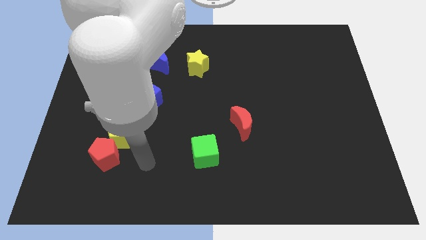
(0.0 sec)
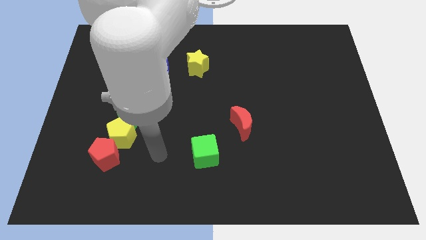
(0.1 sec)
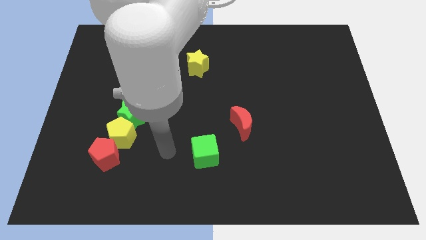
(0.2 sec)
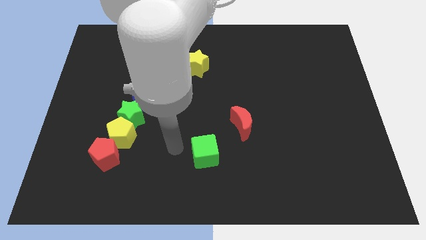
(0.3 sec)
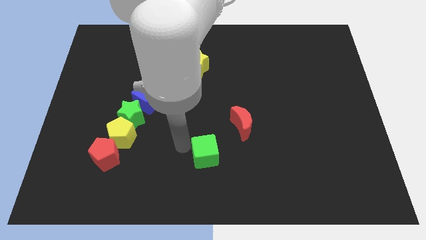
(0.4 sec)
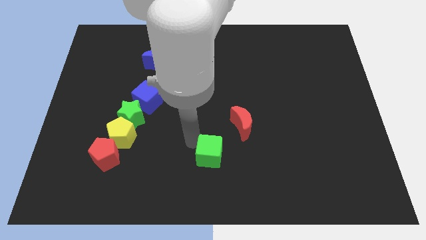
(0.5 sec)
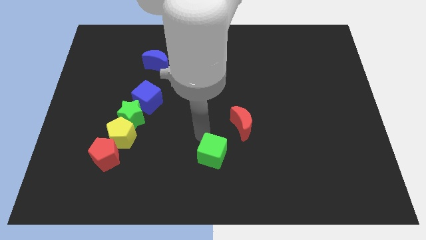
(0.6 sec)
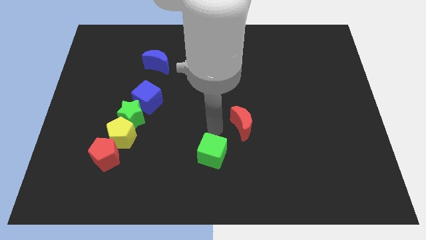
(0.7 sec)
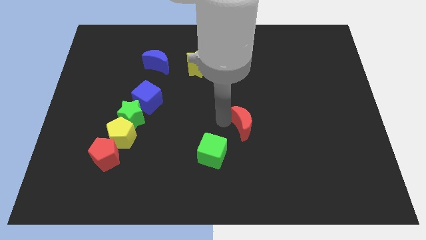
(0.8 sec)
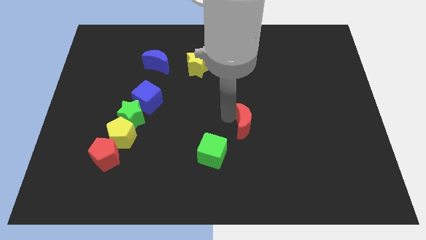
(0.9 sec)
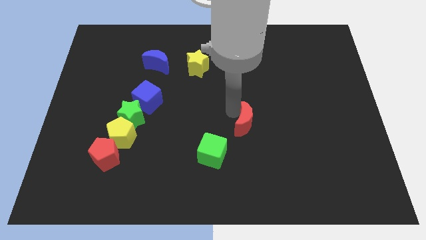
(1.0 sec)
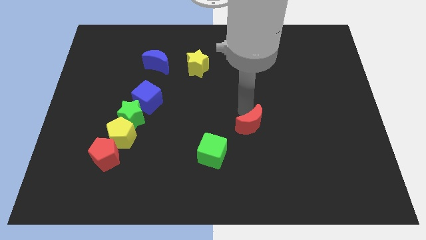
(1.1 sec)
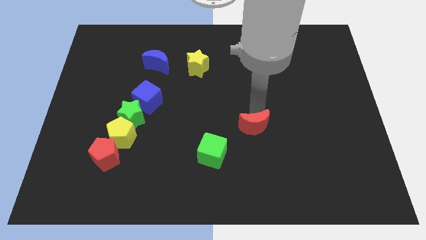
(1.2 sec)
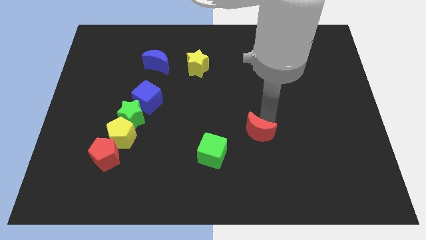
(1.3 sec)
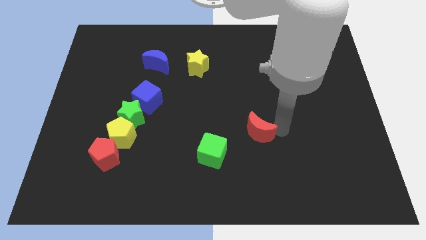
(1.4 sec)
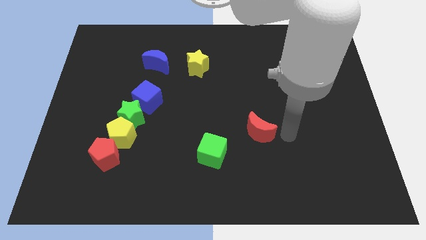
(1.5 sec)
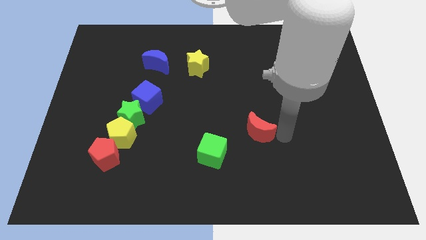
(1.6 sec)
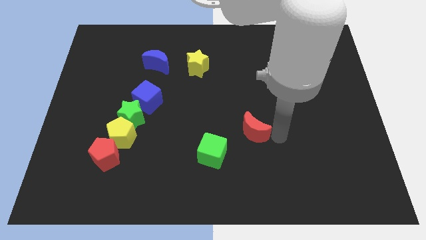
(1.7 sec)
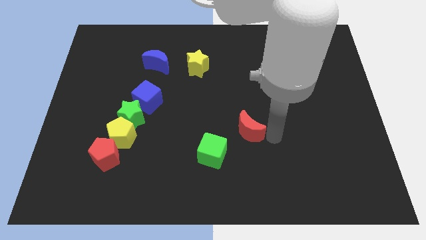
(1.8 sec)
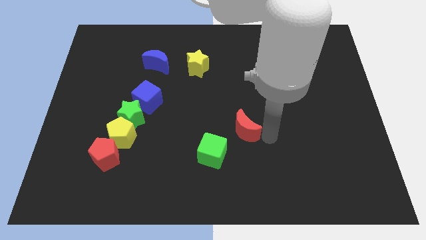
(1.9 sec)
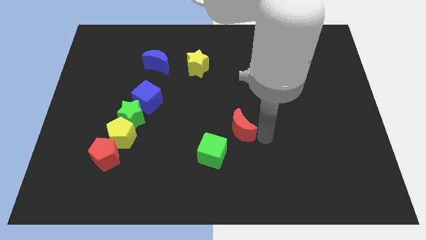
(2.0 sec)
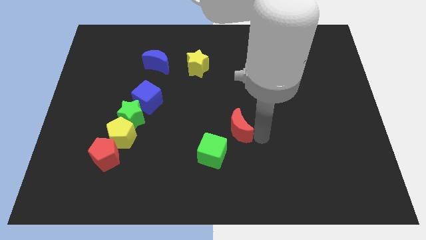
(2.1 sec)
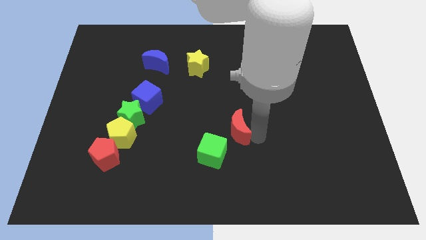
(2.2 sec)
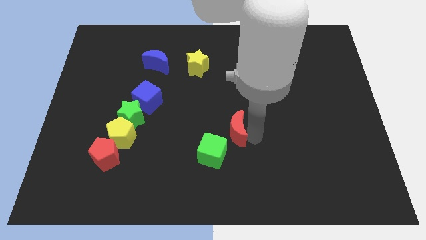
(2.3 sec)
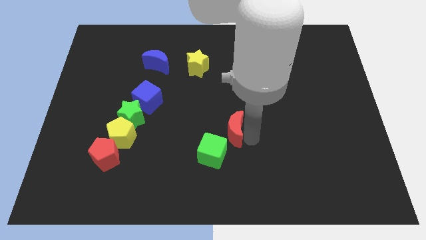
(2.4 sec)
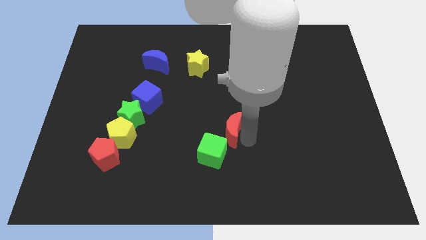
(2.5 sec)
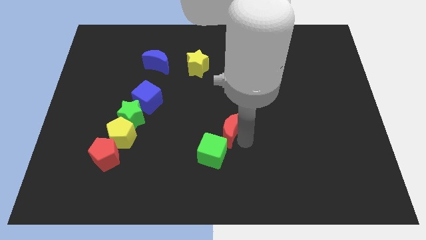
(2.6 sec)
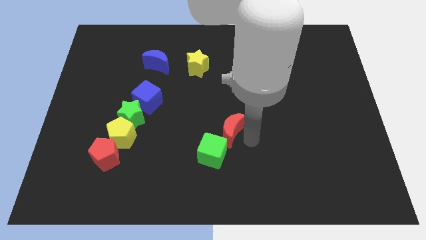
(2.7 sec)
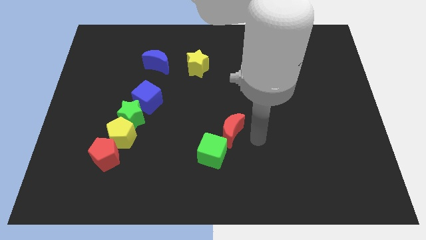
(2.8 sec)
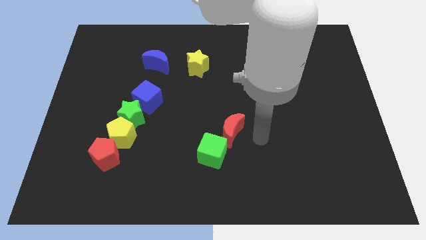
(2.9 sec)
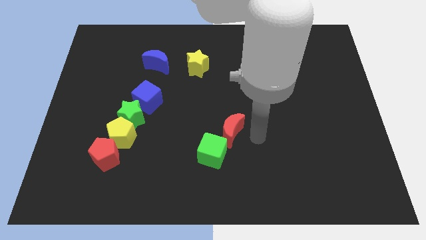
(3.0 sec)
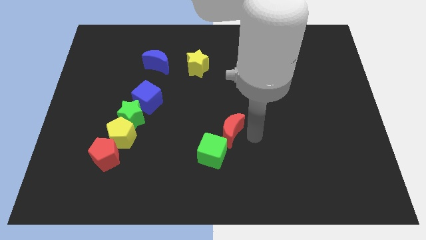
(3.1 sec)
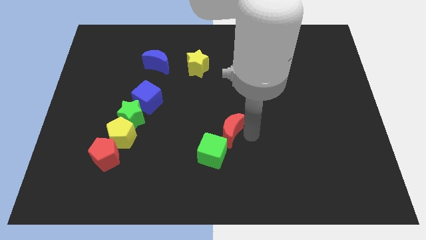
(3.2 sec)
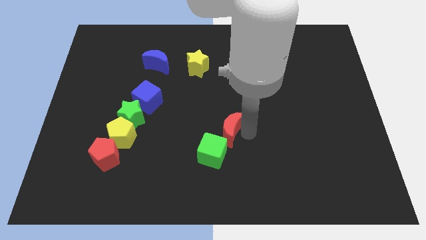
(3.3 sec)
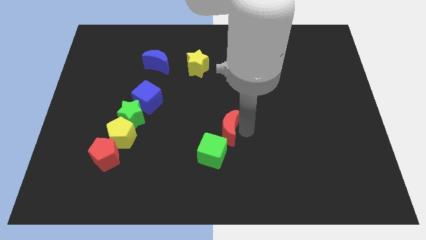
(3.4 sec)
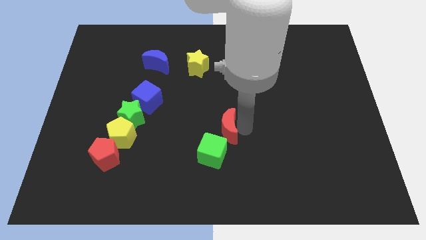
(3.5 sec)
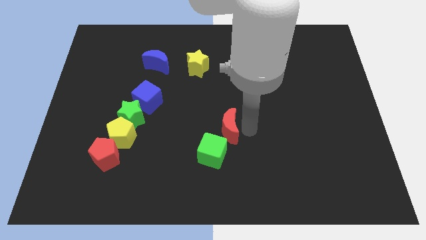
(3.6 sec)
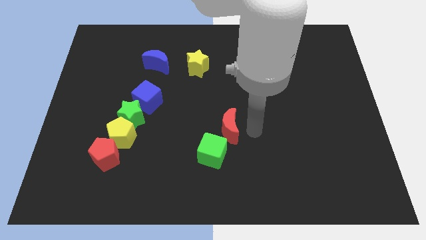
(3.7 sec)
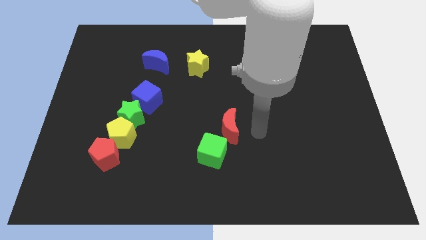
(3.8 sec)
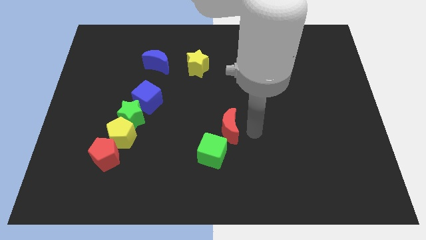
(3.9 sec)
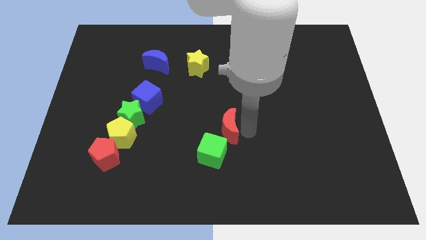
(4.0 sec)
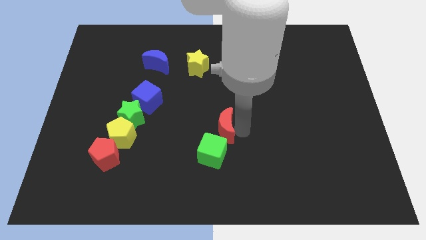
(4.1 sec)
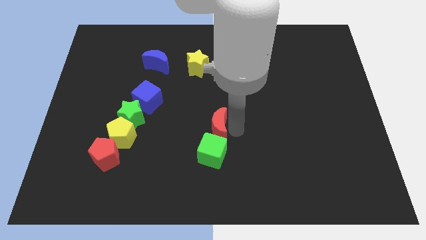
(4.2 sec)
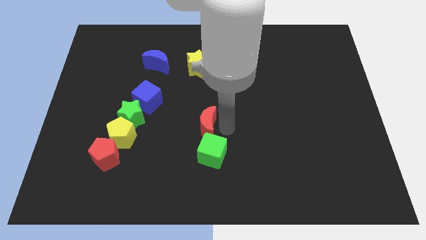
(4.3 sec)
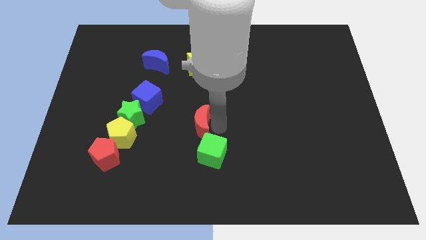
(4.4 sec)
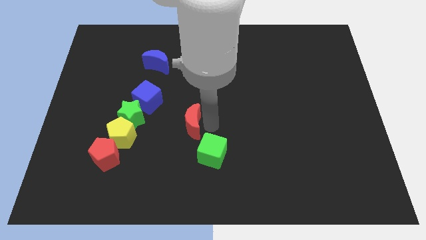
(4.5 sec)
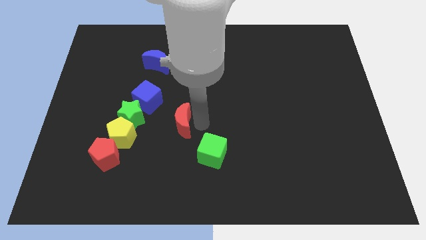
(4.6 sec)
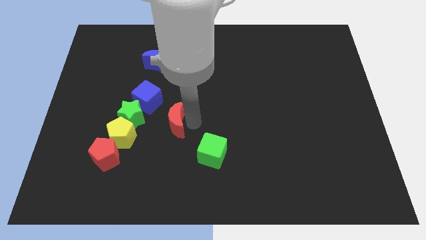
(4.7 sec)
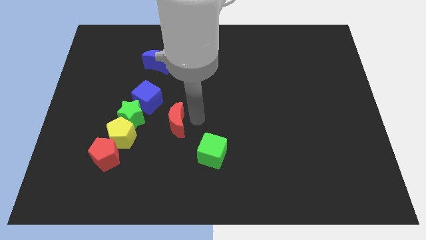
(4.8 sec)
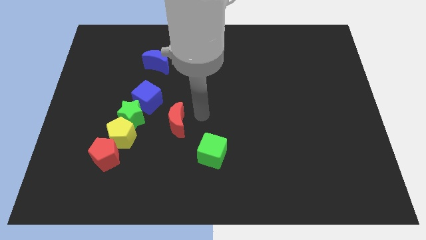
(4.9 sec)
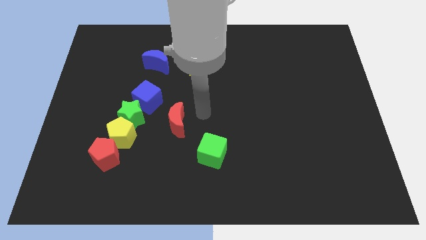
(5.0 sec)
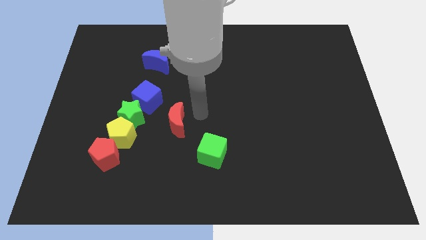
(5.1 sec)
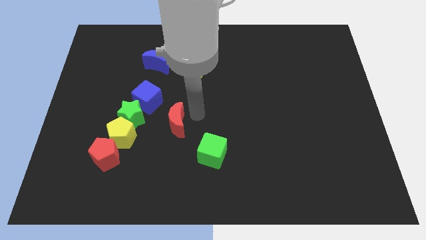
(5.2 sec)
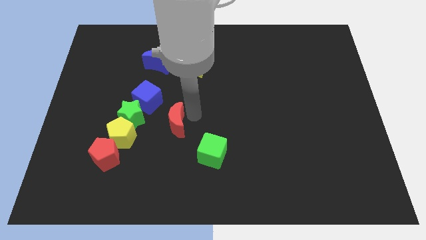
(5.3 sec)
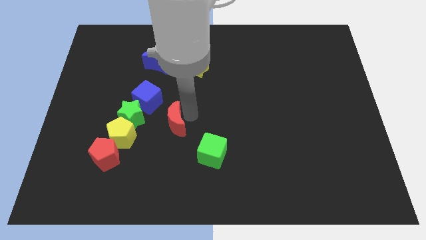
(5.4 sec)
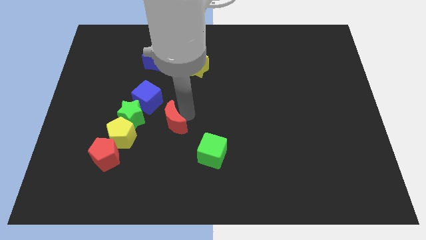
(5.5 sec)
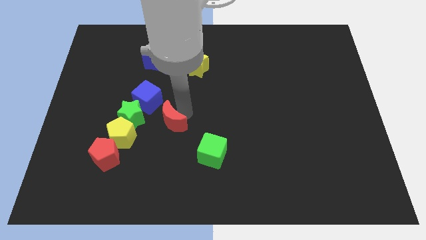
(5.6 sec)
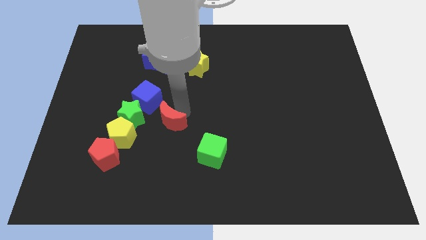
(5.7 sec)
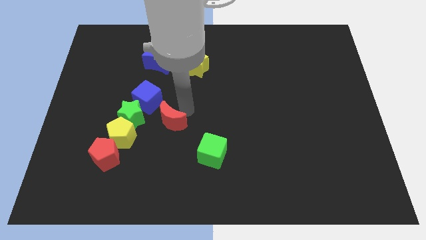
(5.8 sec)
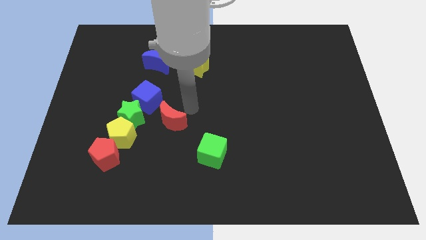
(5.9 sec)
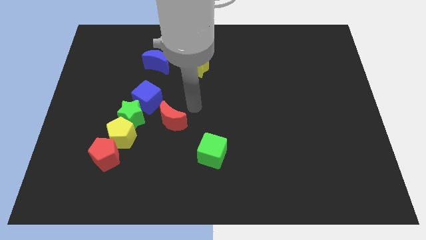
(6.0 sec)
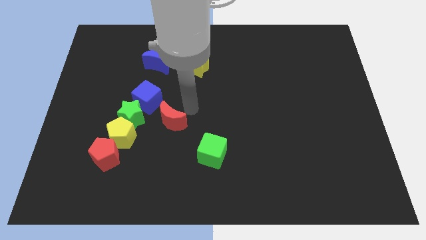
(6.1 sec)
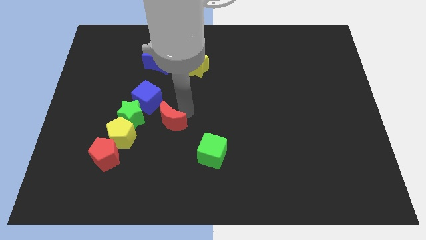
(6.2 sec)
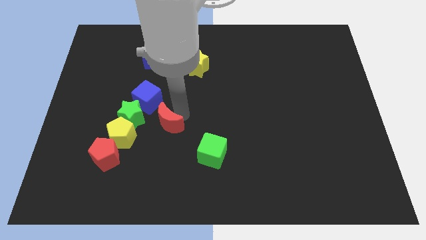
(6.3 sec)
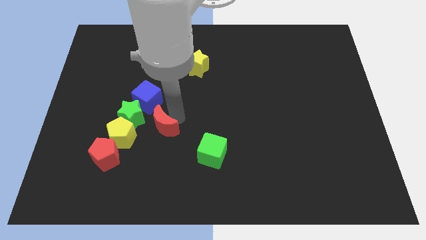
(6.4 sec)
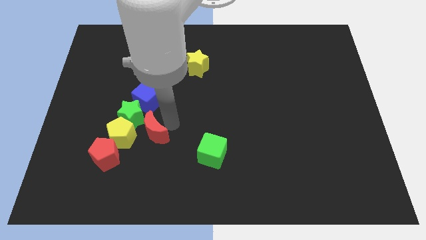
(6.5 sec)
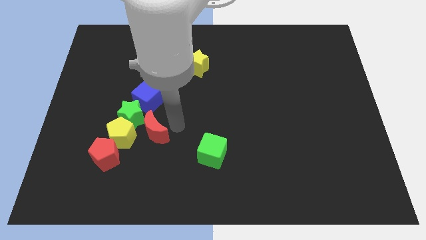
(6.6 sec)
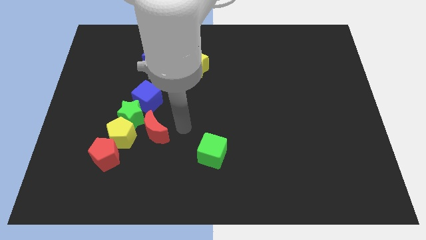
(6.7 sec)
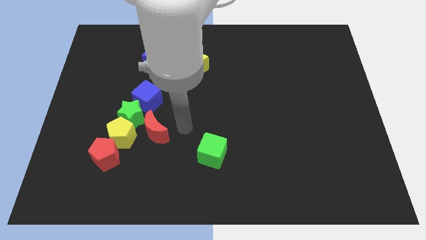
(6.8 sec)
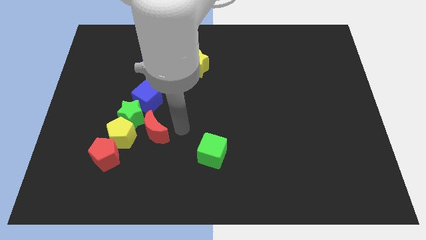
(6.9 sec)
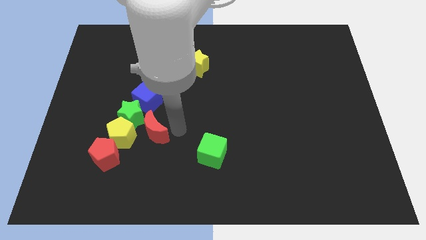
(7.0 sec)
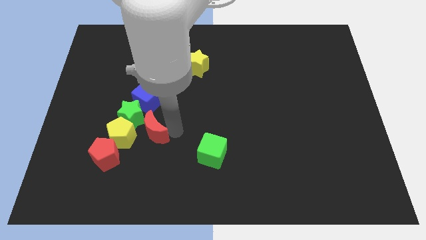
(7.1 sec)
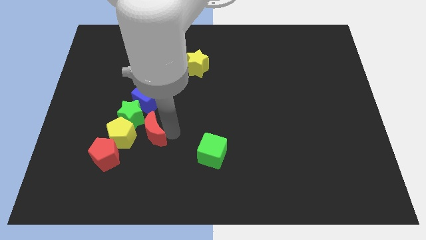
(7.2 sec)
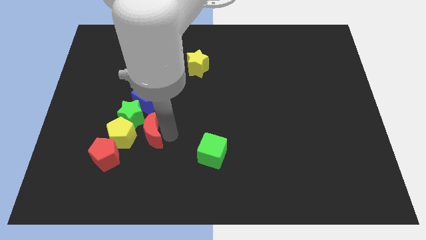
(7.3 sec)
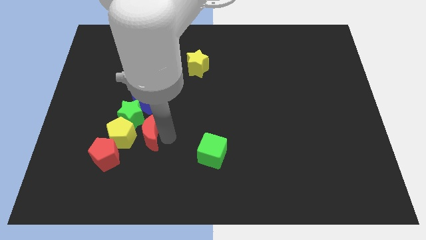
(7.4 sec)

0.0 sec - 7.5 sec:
move the red moon next to the yellow pentagon
